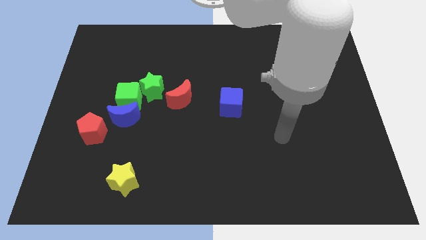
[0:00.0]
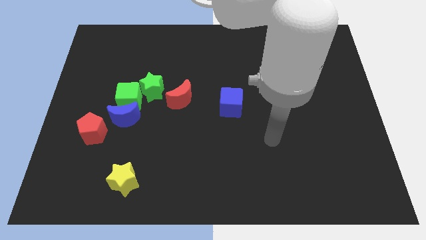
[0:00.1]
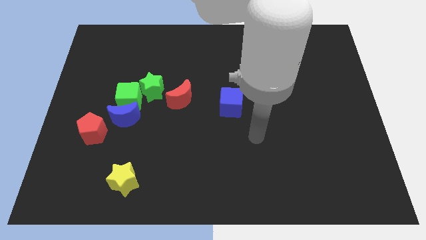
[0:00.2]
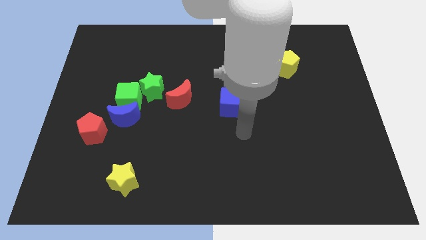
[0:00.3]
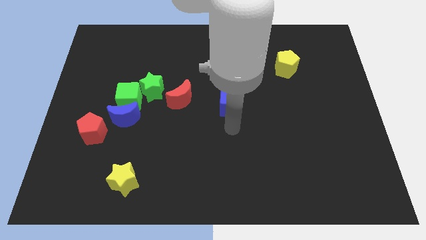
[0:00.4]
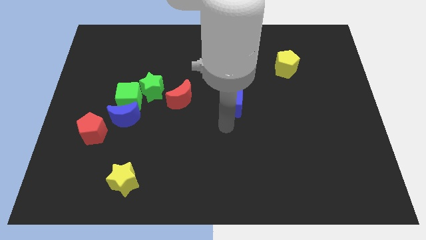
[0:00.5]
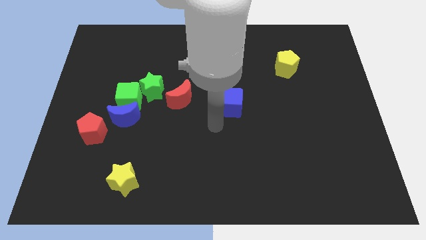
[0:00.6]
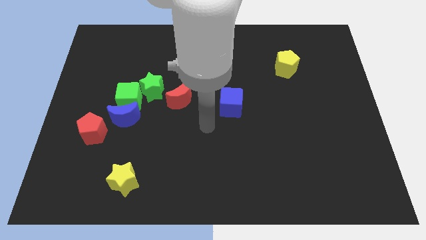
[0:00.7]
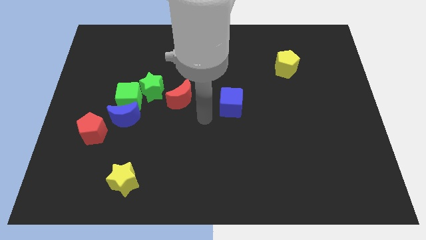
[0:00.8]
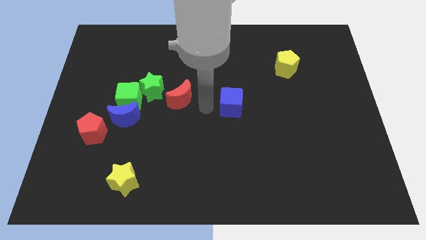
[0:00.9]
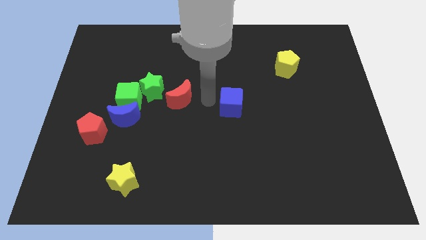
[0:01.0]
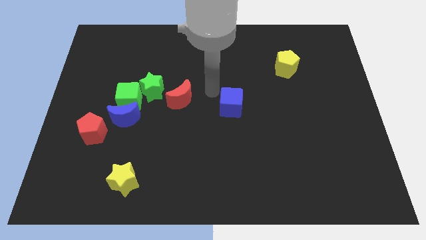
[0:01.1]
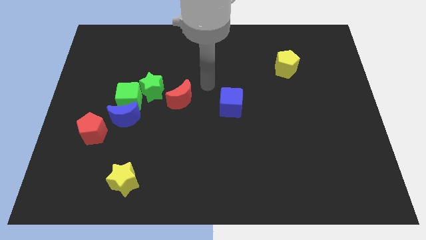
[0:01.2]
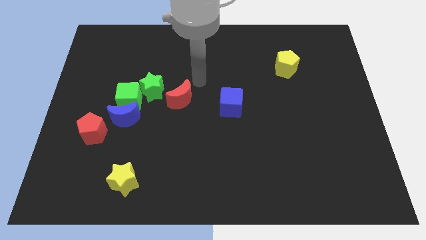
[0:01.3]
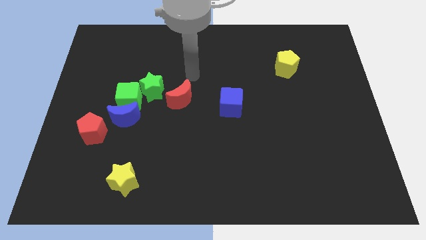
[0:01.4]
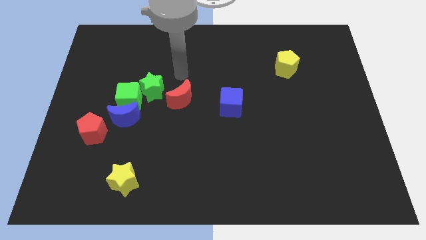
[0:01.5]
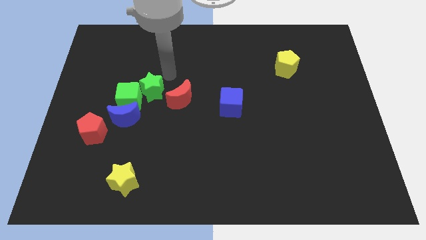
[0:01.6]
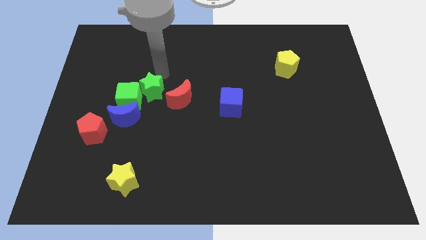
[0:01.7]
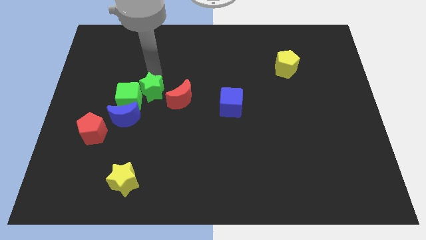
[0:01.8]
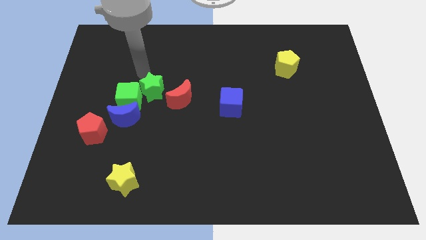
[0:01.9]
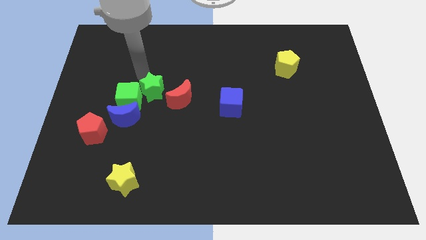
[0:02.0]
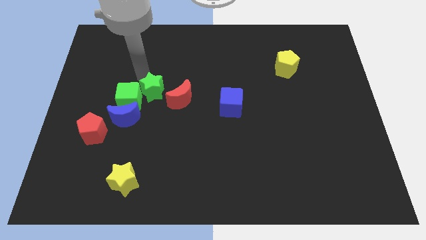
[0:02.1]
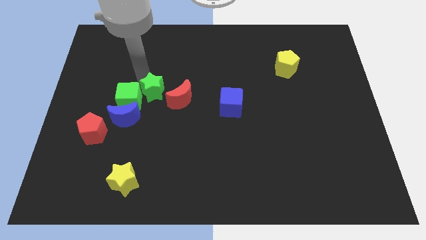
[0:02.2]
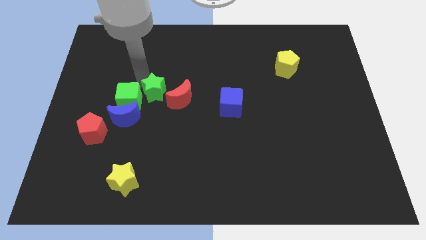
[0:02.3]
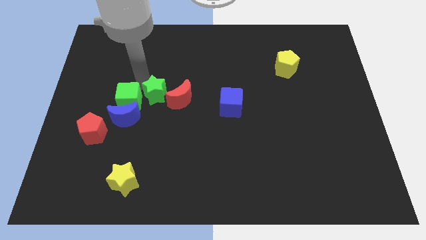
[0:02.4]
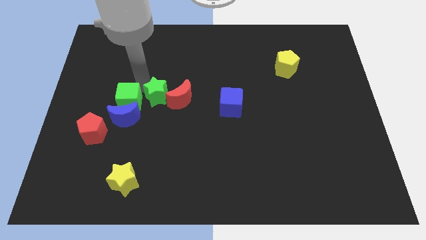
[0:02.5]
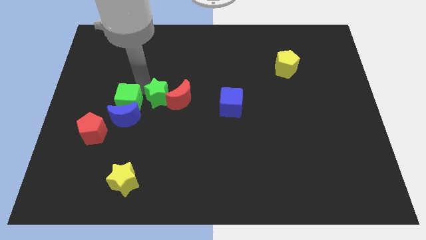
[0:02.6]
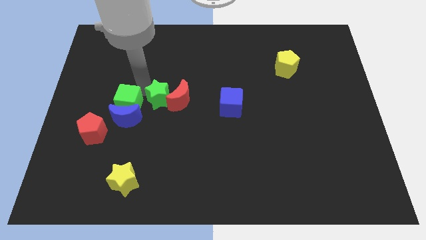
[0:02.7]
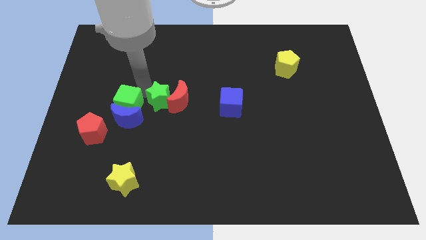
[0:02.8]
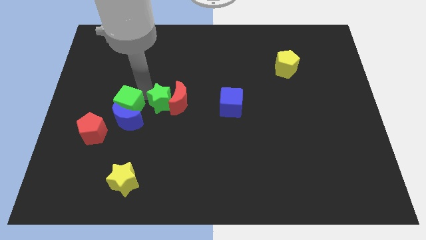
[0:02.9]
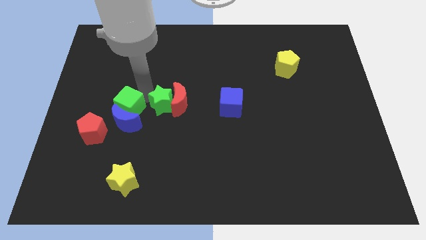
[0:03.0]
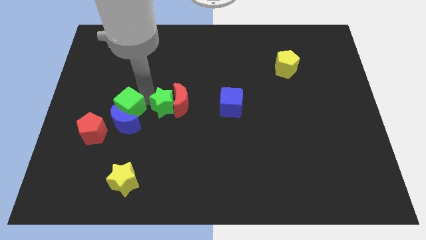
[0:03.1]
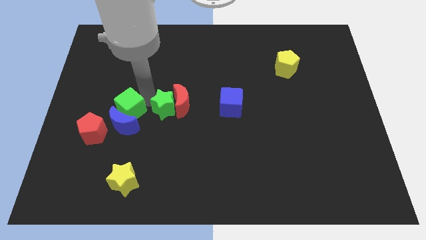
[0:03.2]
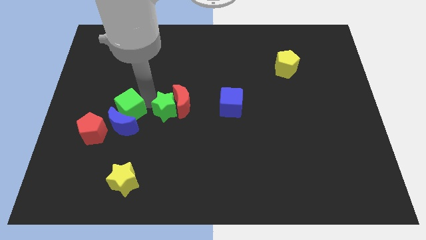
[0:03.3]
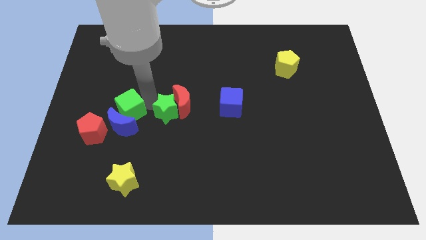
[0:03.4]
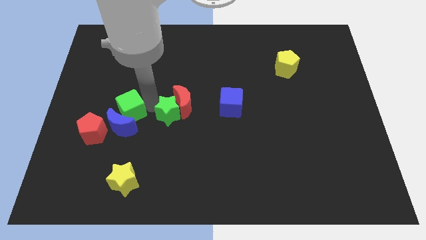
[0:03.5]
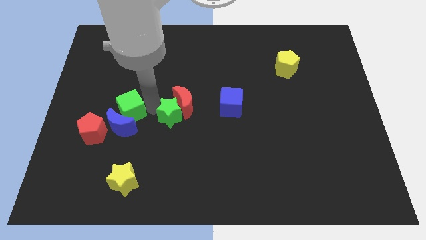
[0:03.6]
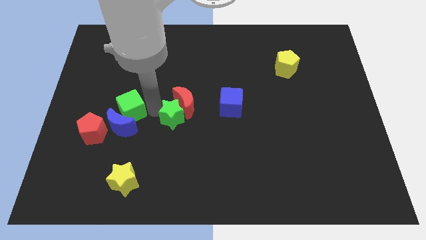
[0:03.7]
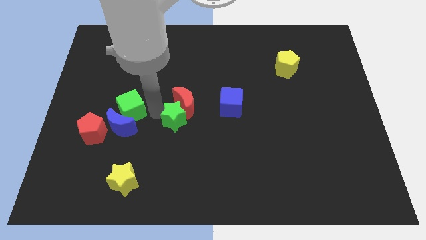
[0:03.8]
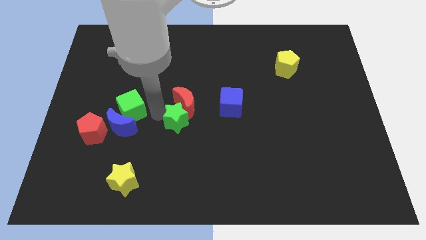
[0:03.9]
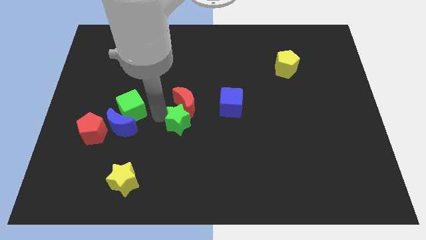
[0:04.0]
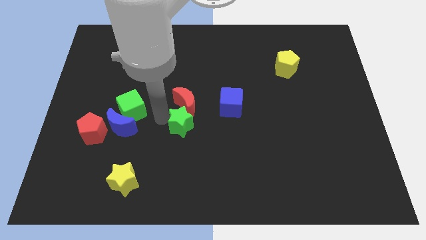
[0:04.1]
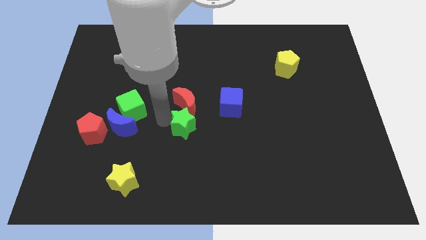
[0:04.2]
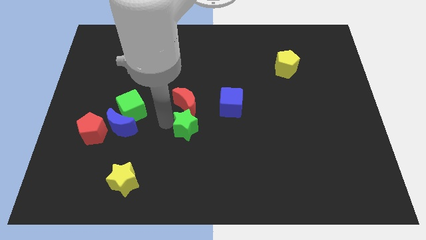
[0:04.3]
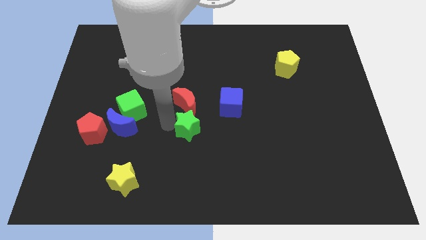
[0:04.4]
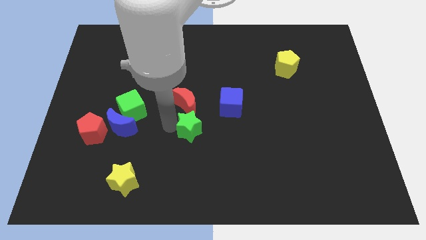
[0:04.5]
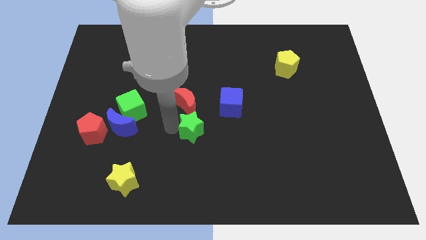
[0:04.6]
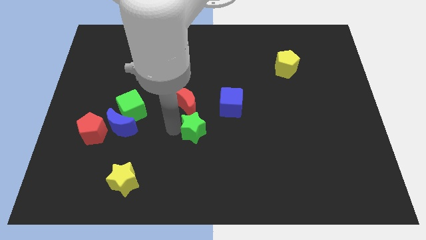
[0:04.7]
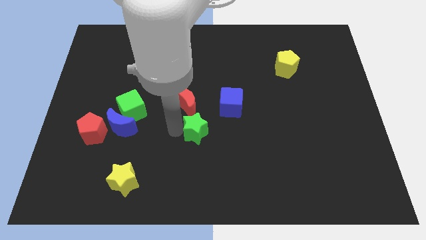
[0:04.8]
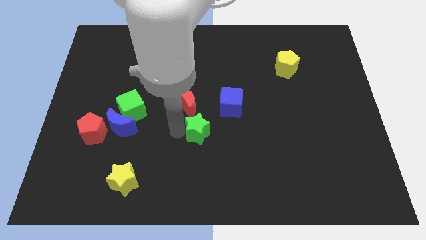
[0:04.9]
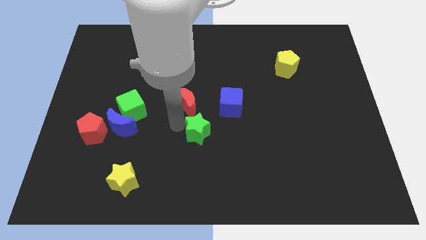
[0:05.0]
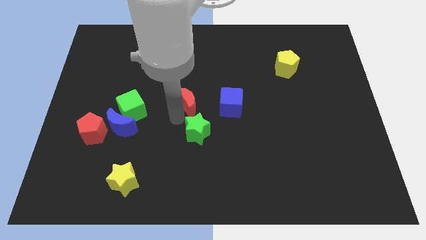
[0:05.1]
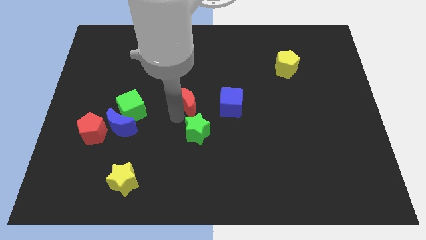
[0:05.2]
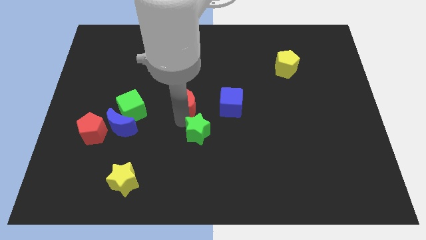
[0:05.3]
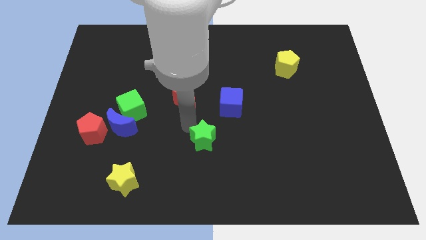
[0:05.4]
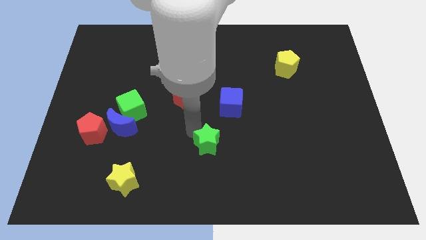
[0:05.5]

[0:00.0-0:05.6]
move the green star down and right

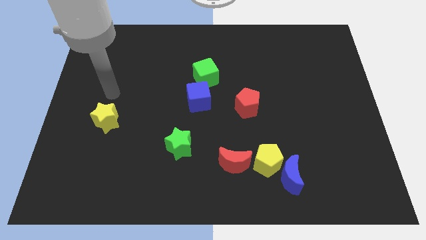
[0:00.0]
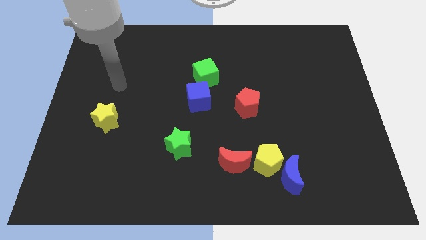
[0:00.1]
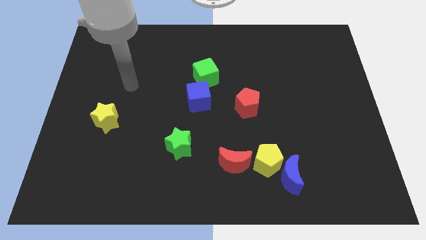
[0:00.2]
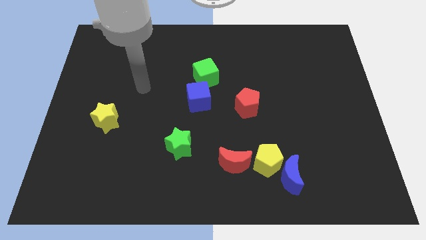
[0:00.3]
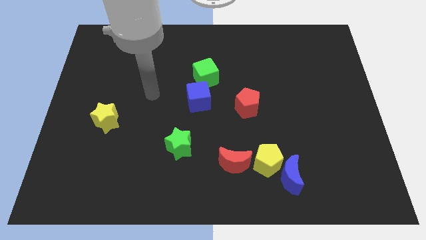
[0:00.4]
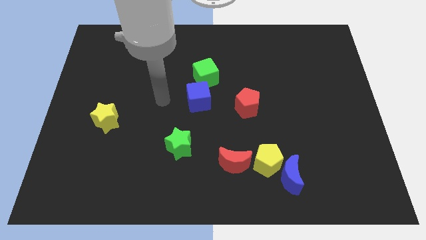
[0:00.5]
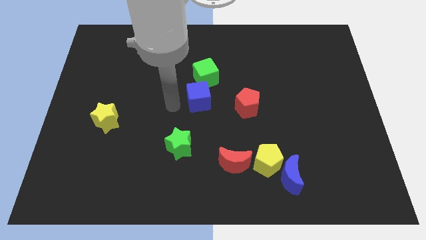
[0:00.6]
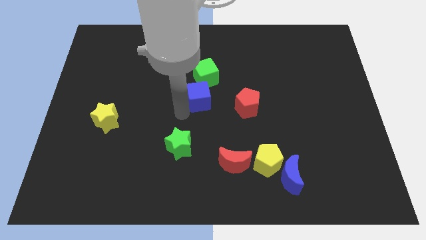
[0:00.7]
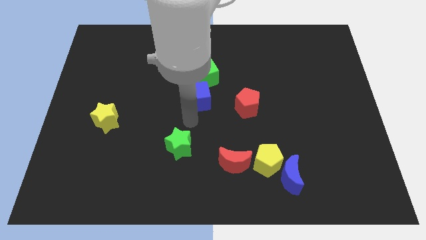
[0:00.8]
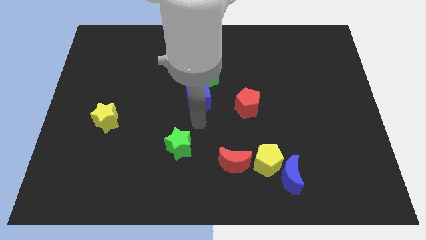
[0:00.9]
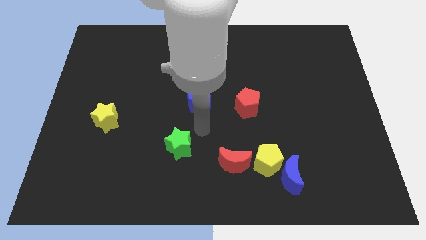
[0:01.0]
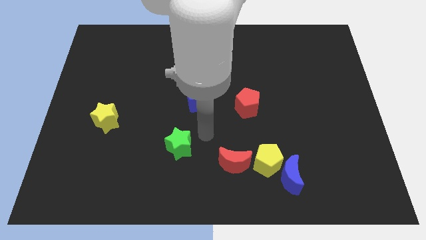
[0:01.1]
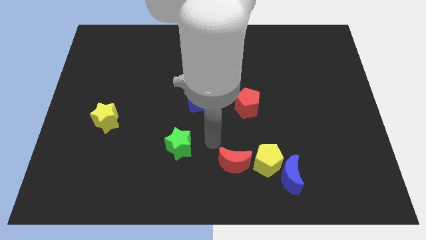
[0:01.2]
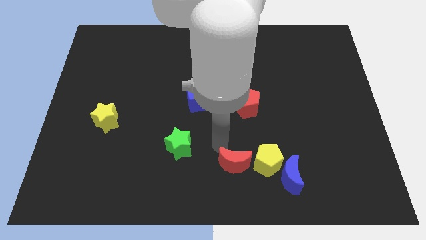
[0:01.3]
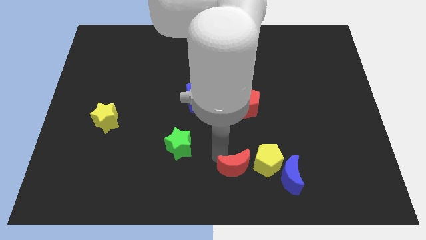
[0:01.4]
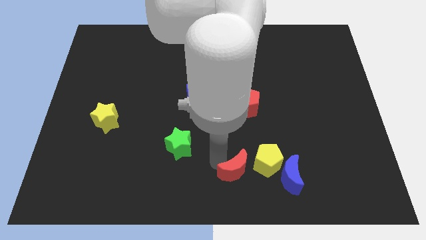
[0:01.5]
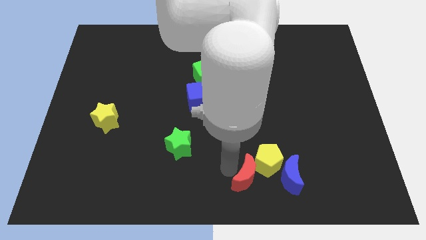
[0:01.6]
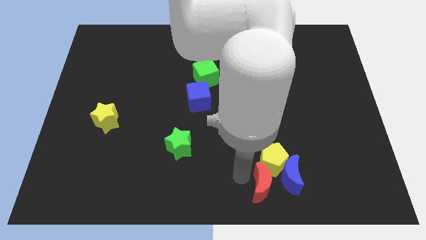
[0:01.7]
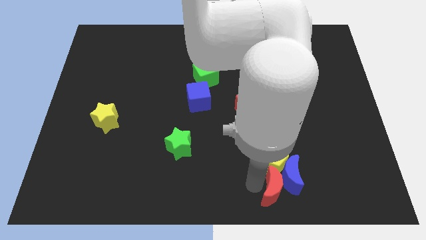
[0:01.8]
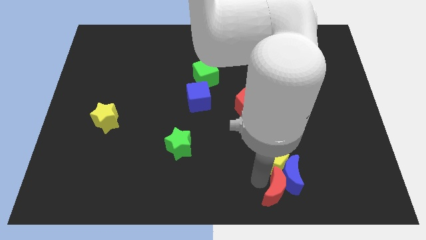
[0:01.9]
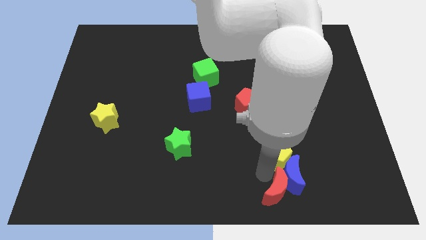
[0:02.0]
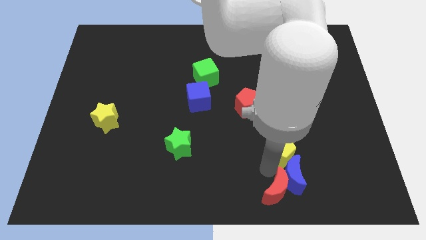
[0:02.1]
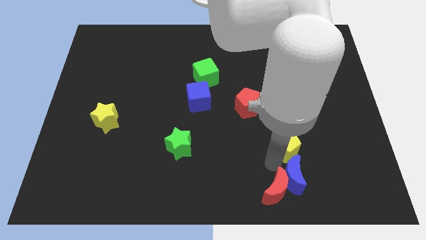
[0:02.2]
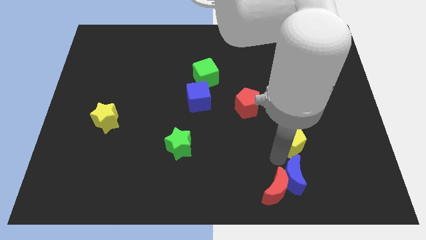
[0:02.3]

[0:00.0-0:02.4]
slightly move the yellow pentagon upwards and right diagonally

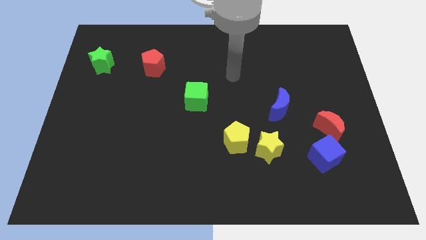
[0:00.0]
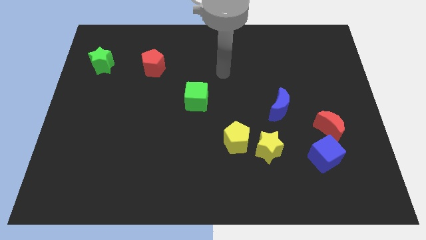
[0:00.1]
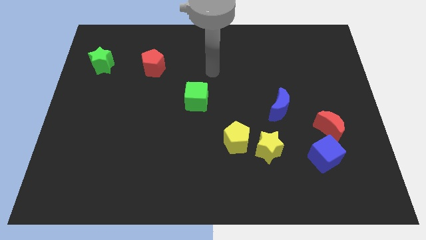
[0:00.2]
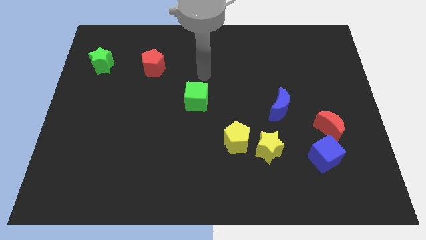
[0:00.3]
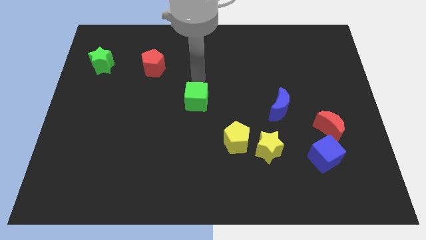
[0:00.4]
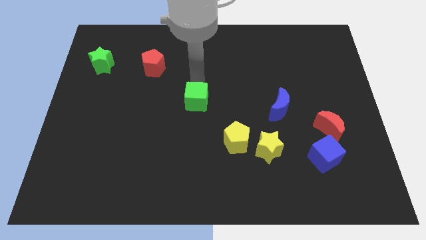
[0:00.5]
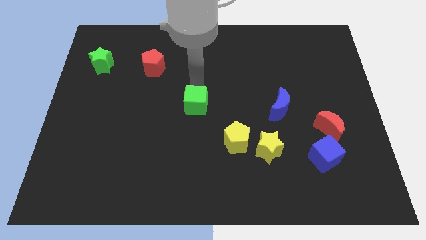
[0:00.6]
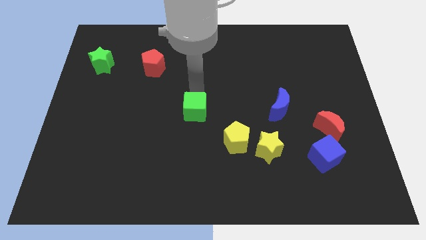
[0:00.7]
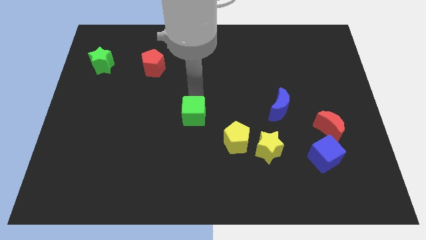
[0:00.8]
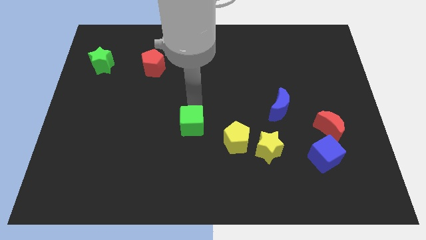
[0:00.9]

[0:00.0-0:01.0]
slightly push the green cube down
